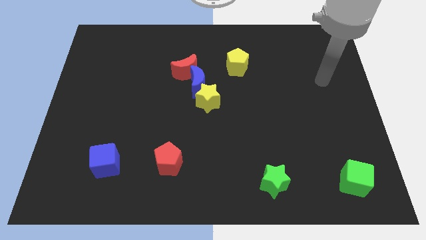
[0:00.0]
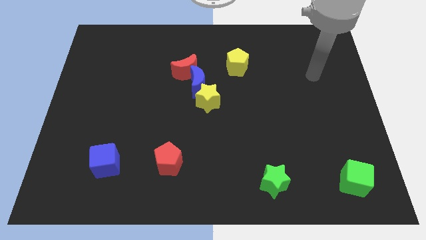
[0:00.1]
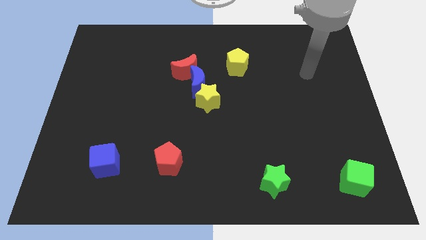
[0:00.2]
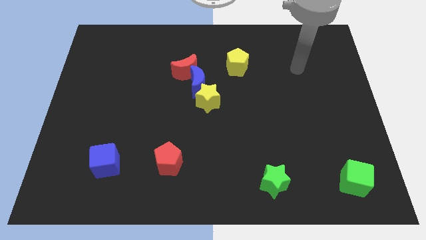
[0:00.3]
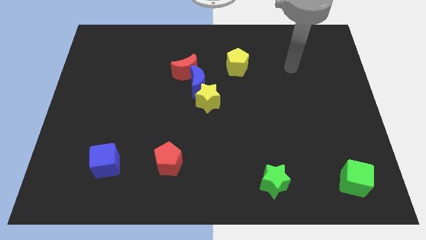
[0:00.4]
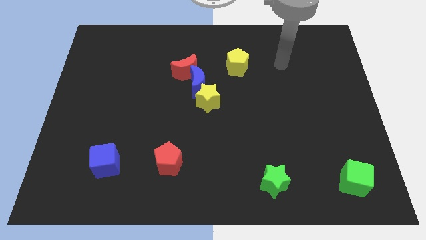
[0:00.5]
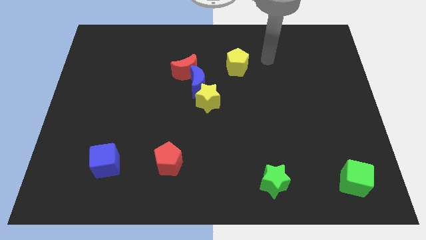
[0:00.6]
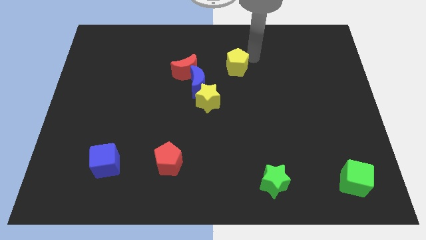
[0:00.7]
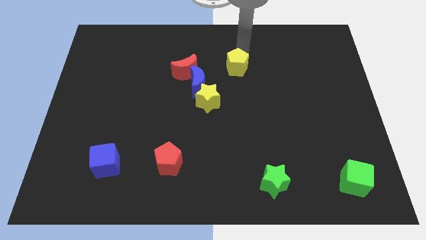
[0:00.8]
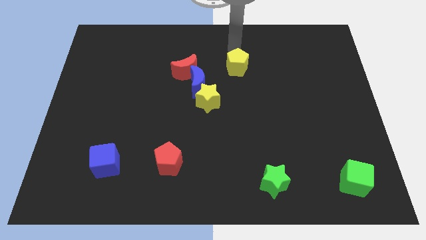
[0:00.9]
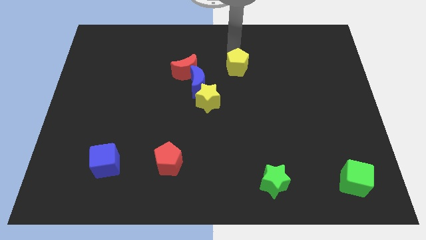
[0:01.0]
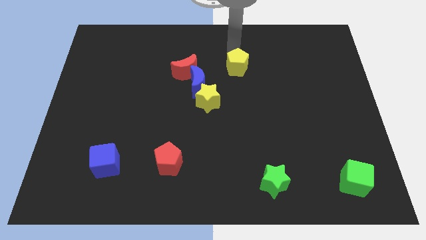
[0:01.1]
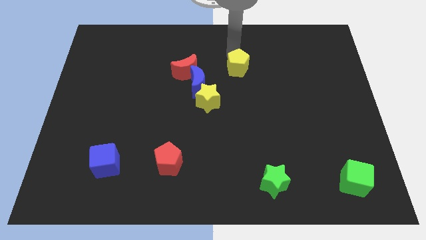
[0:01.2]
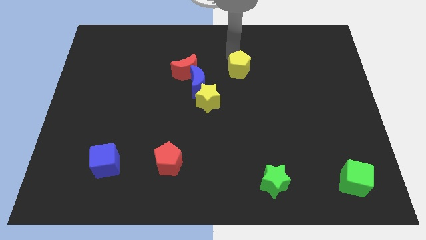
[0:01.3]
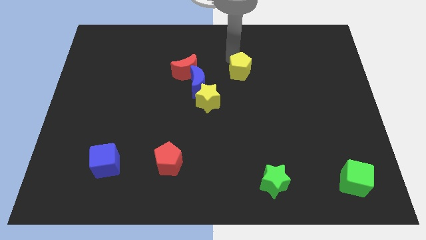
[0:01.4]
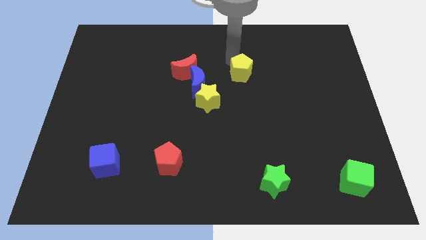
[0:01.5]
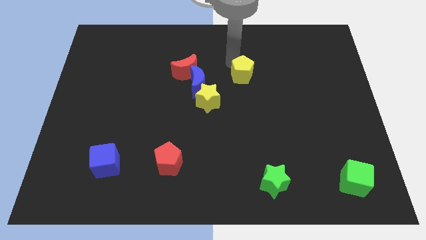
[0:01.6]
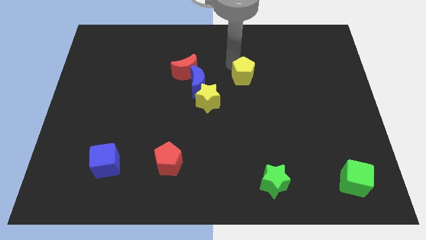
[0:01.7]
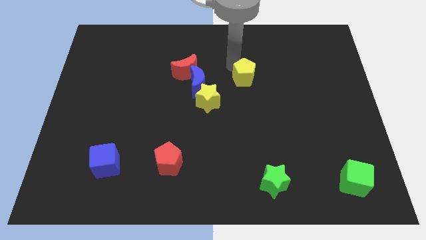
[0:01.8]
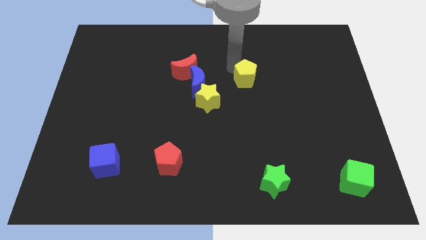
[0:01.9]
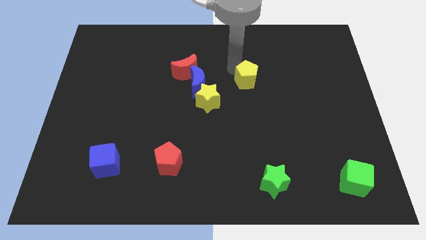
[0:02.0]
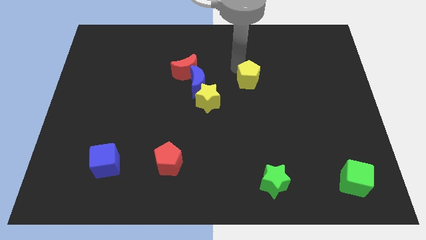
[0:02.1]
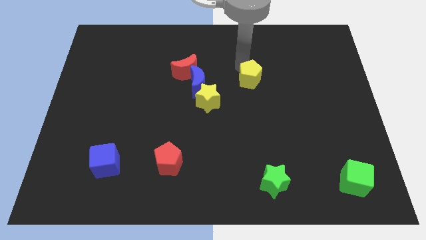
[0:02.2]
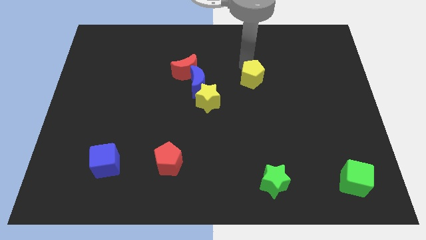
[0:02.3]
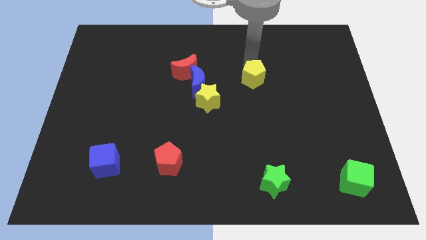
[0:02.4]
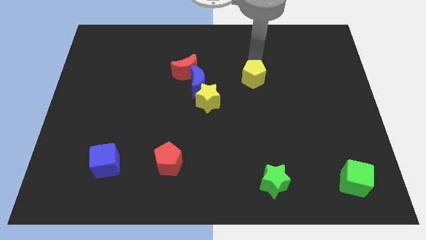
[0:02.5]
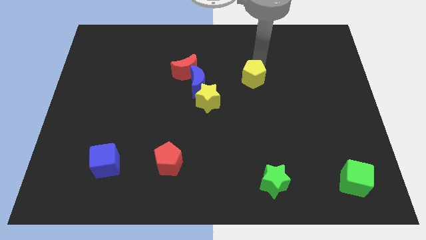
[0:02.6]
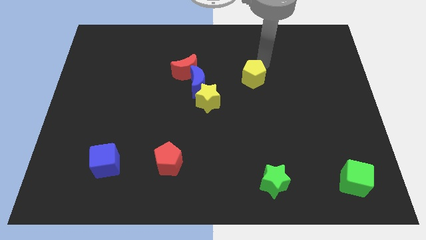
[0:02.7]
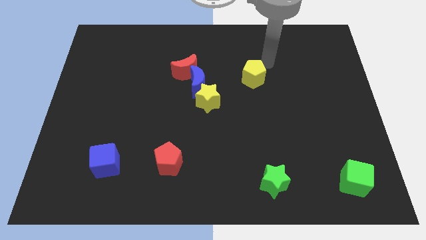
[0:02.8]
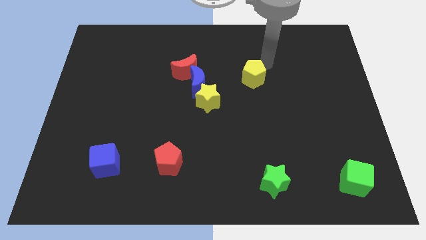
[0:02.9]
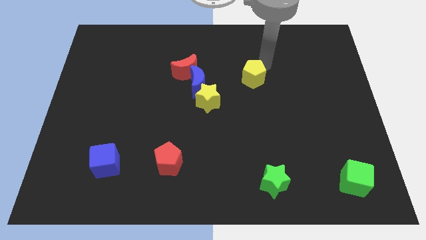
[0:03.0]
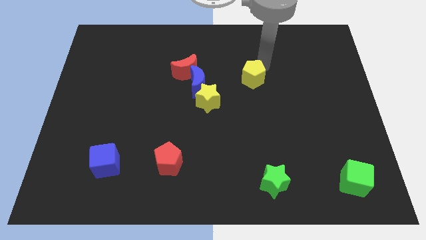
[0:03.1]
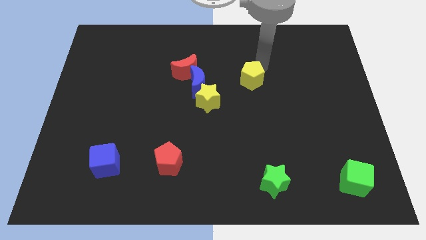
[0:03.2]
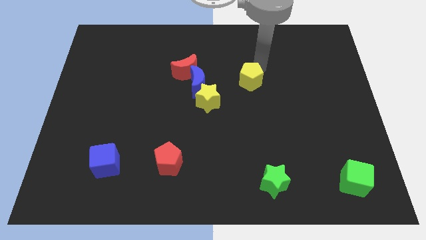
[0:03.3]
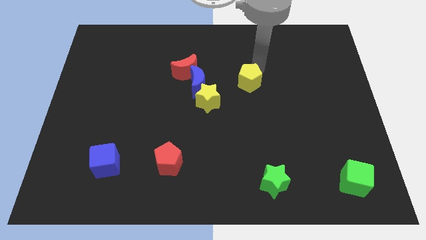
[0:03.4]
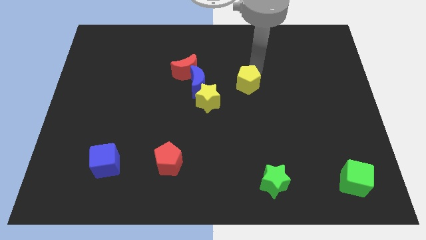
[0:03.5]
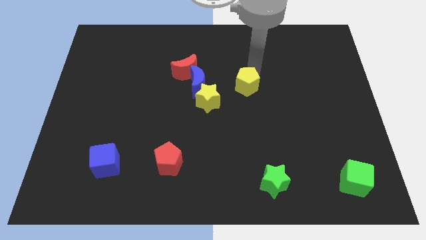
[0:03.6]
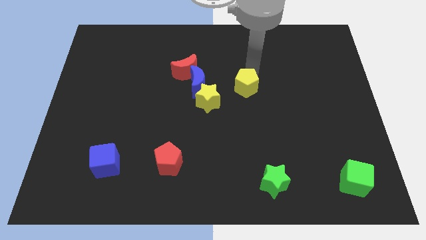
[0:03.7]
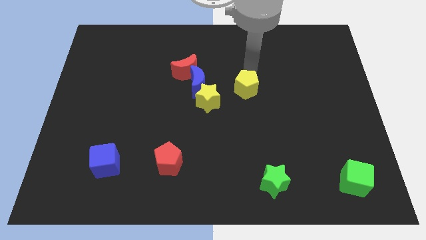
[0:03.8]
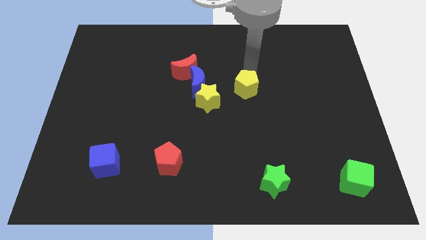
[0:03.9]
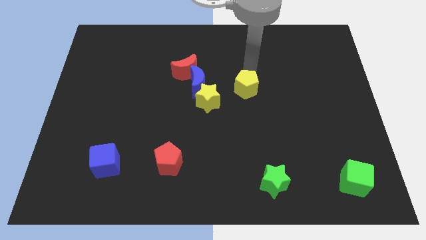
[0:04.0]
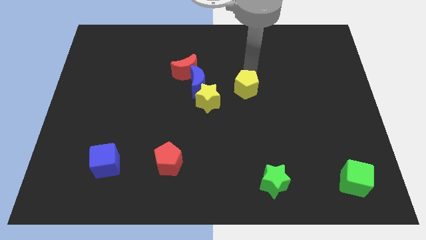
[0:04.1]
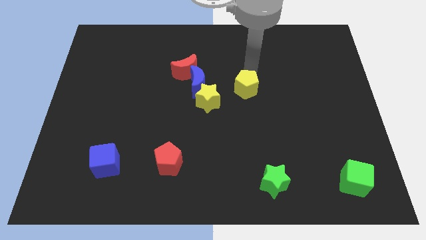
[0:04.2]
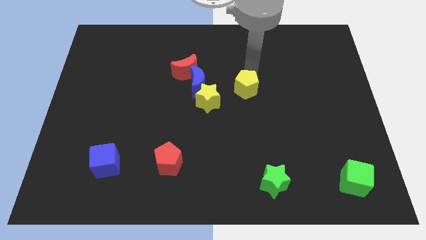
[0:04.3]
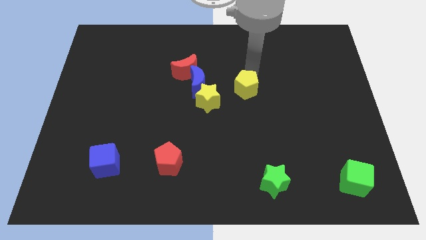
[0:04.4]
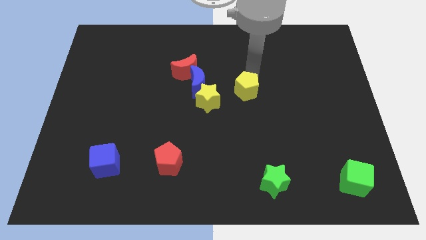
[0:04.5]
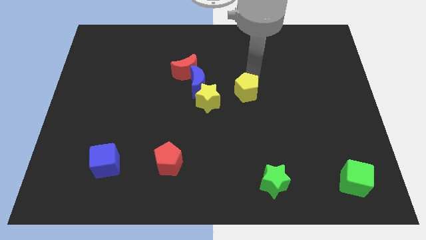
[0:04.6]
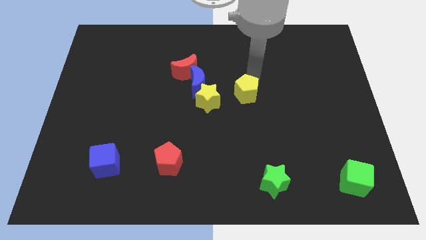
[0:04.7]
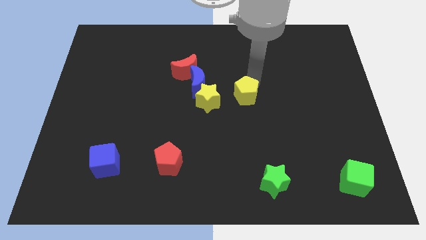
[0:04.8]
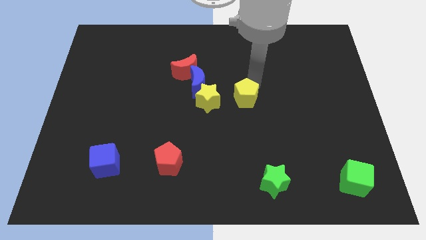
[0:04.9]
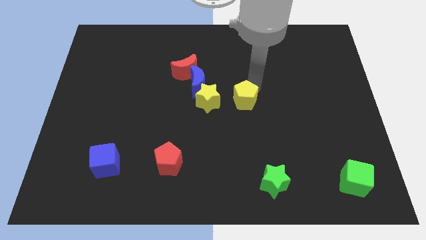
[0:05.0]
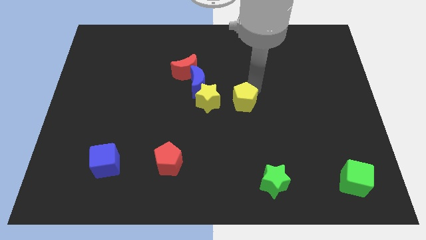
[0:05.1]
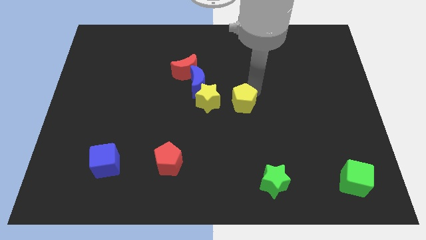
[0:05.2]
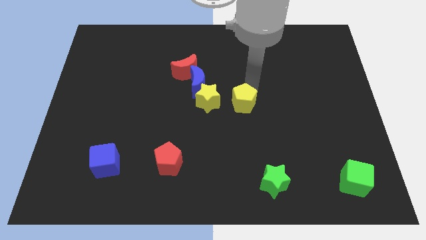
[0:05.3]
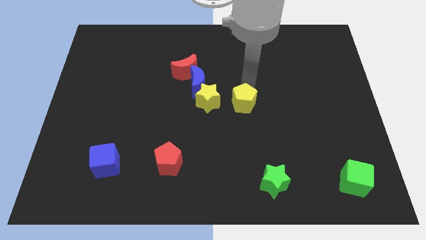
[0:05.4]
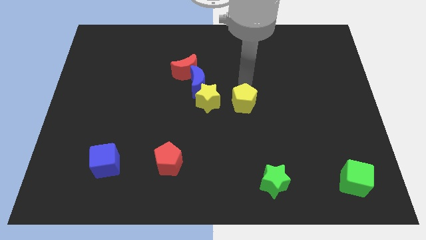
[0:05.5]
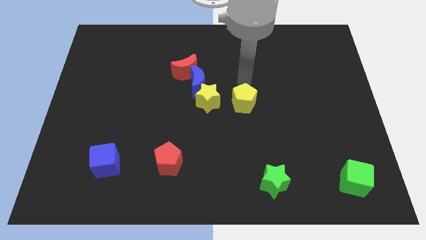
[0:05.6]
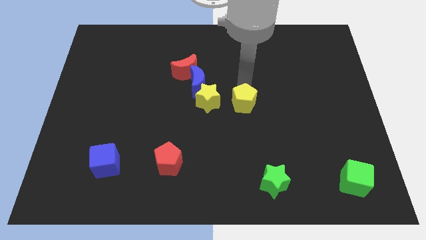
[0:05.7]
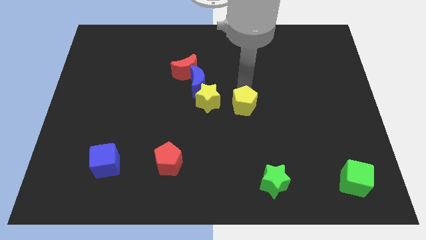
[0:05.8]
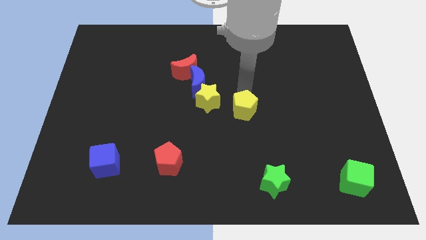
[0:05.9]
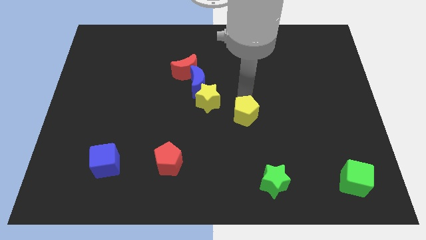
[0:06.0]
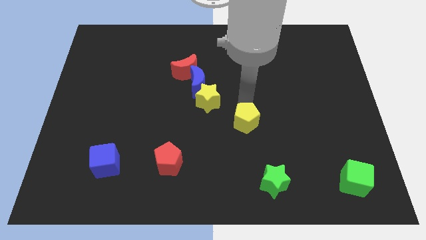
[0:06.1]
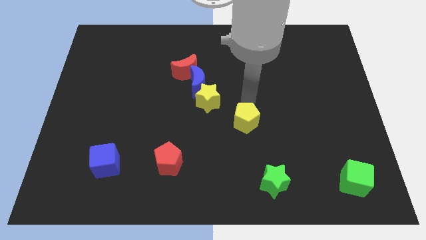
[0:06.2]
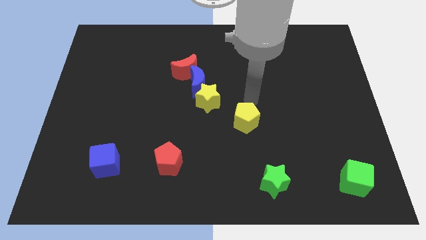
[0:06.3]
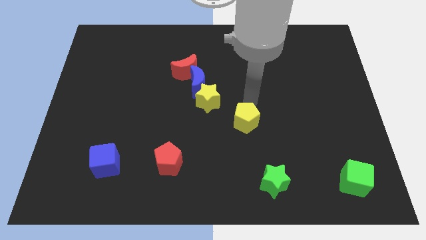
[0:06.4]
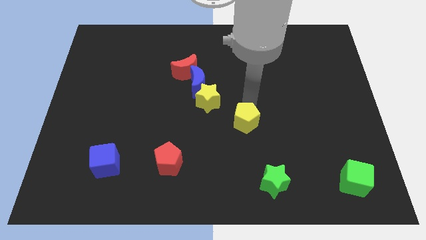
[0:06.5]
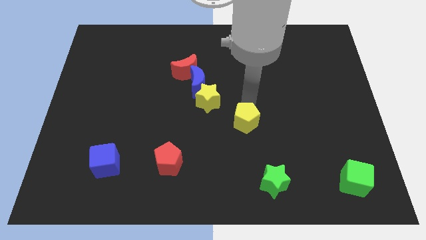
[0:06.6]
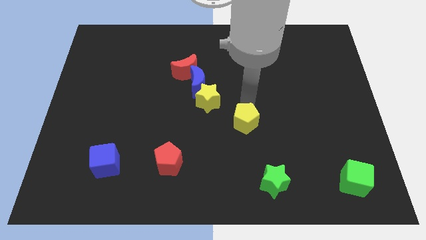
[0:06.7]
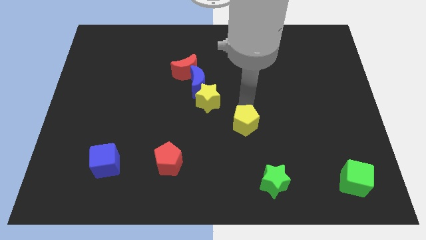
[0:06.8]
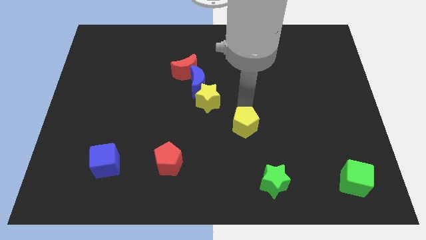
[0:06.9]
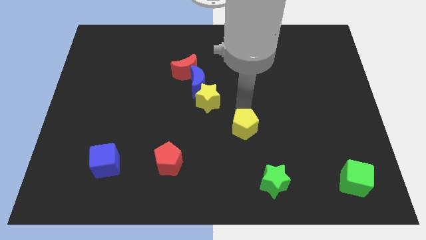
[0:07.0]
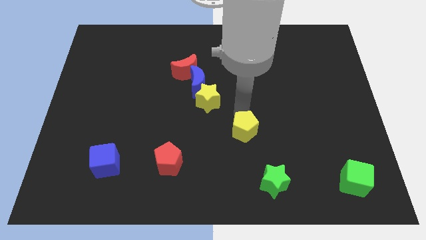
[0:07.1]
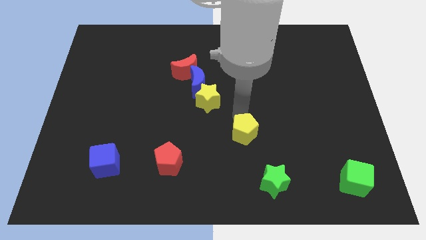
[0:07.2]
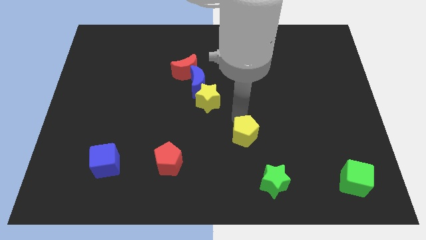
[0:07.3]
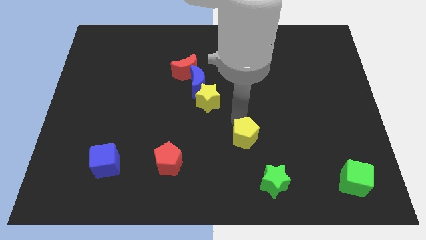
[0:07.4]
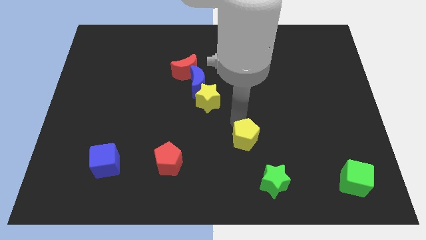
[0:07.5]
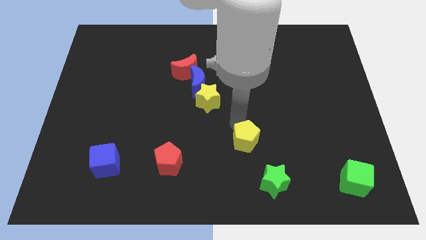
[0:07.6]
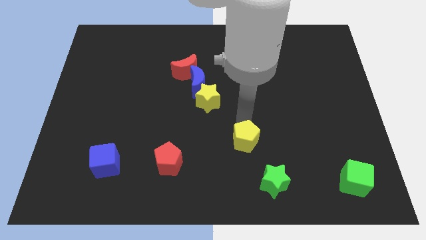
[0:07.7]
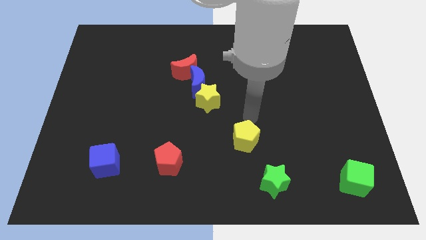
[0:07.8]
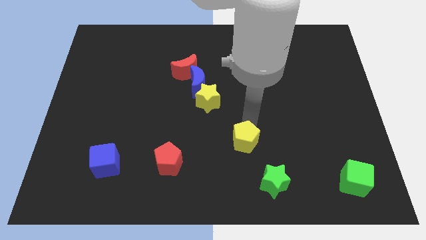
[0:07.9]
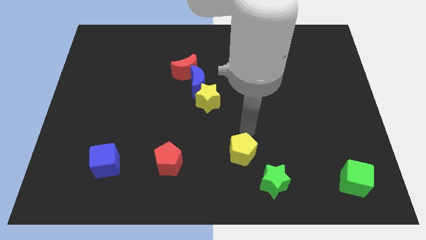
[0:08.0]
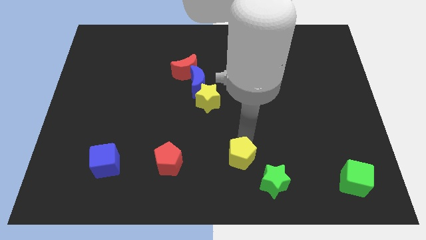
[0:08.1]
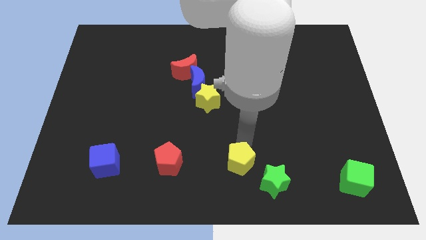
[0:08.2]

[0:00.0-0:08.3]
slide the yellow pentagon to the bottom
